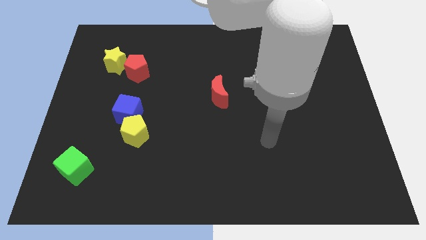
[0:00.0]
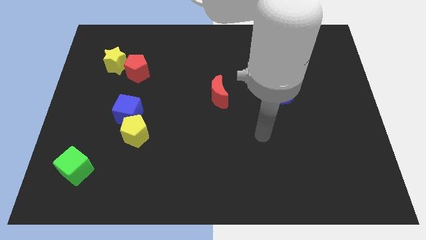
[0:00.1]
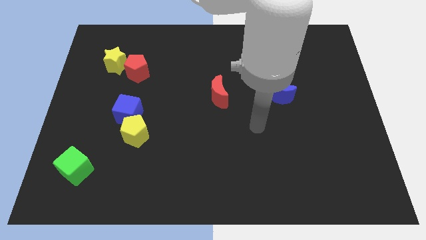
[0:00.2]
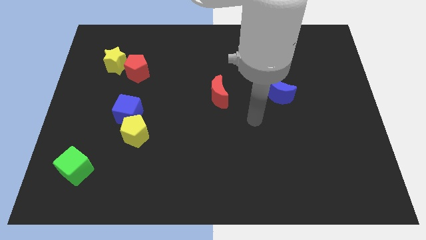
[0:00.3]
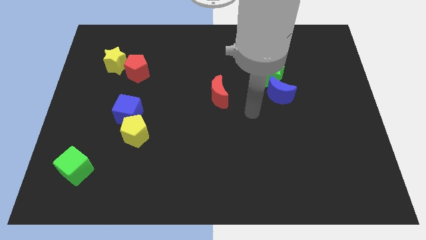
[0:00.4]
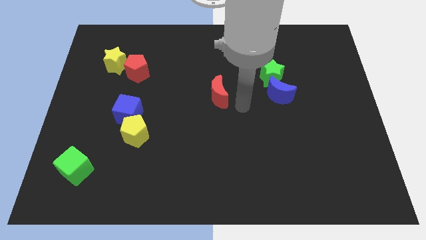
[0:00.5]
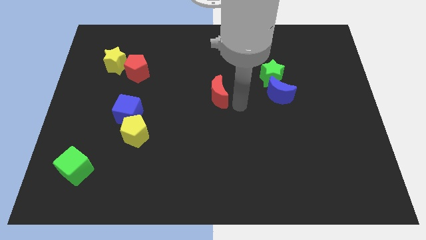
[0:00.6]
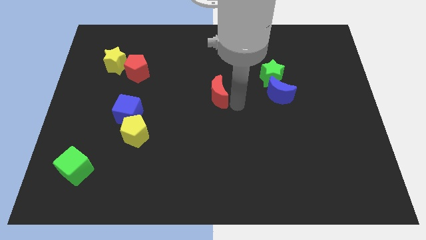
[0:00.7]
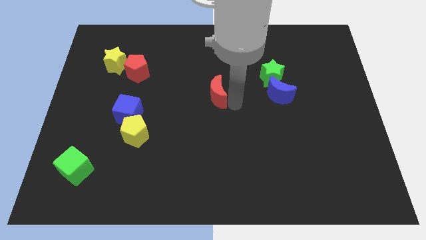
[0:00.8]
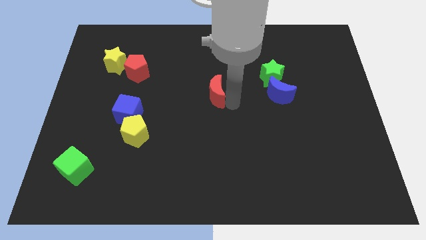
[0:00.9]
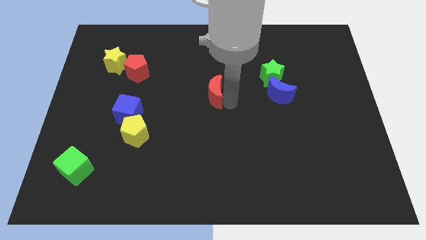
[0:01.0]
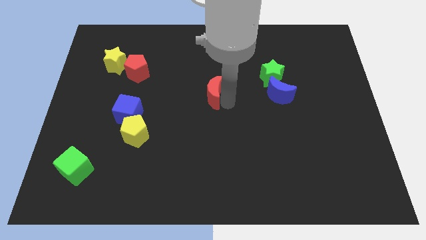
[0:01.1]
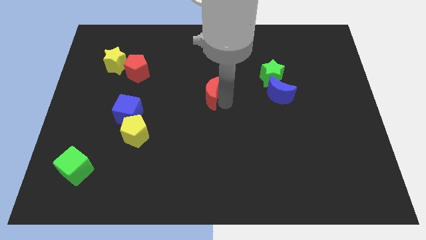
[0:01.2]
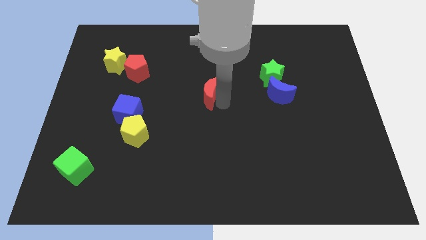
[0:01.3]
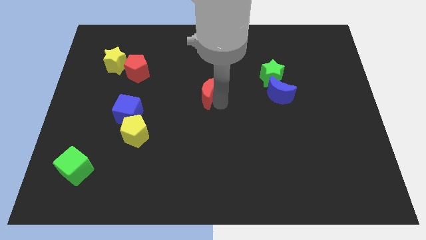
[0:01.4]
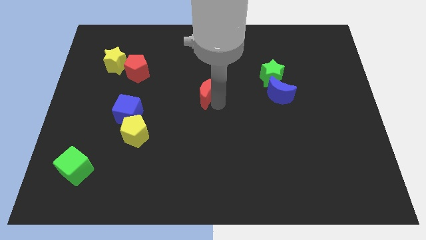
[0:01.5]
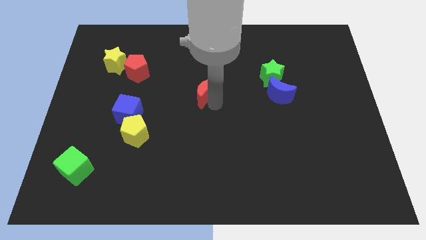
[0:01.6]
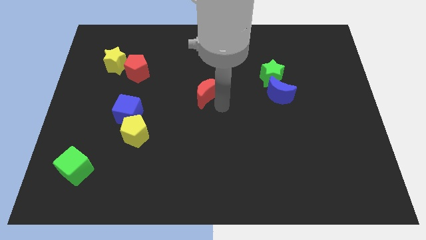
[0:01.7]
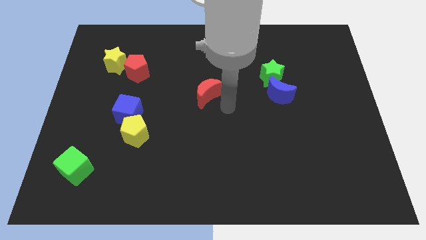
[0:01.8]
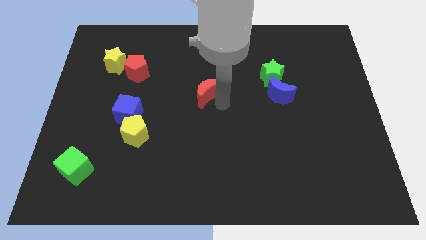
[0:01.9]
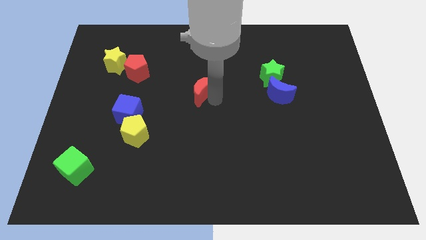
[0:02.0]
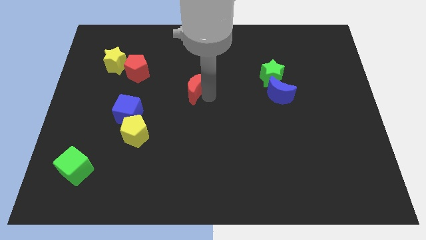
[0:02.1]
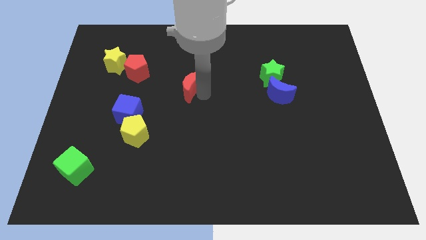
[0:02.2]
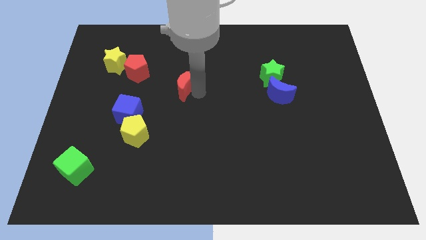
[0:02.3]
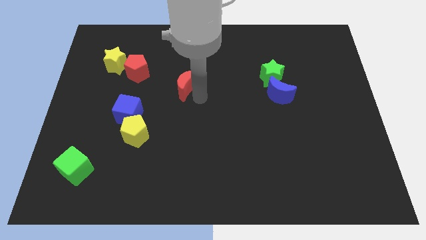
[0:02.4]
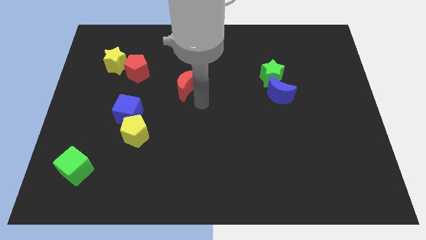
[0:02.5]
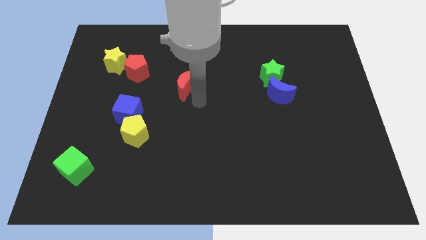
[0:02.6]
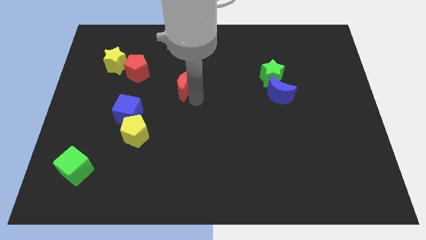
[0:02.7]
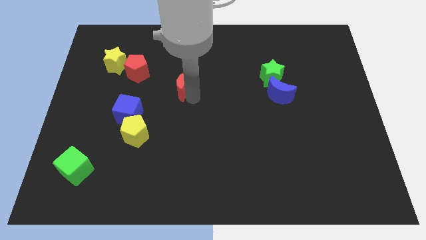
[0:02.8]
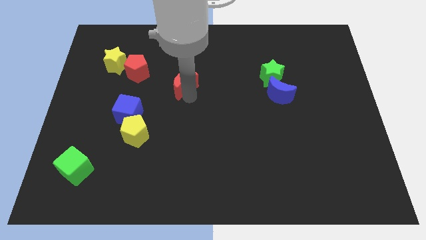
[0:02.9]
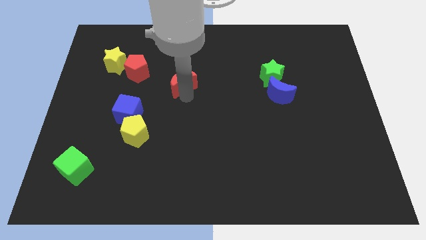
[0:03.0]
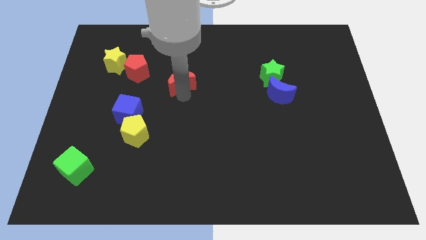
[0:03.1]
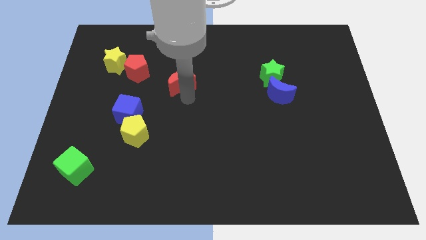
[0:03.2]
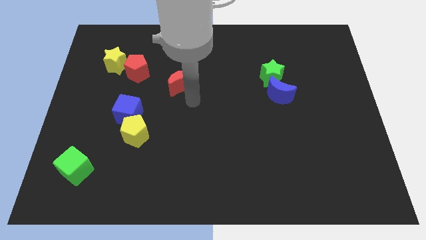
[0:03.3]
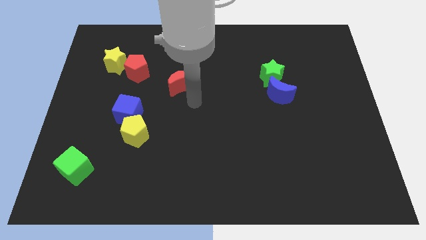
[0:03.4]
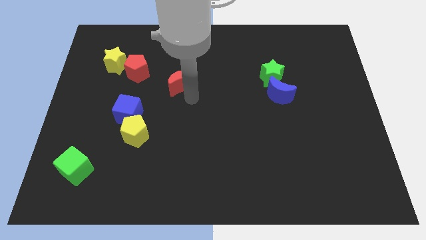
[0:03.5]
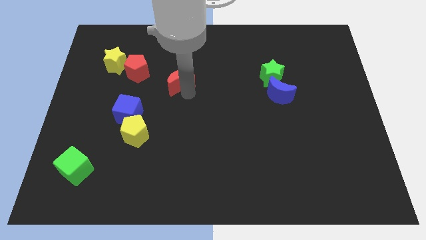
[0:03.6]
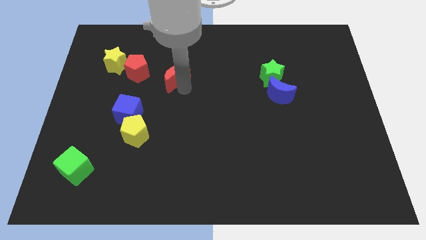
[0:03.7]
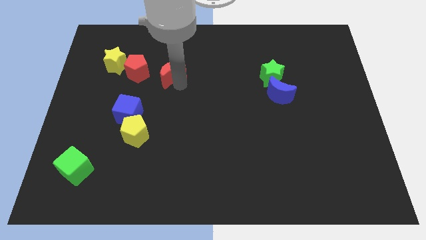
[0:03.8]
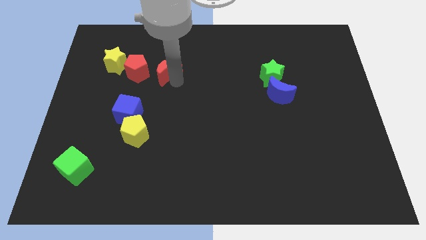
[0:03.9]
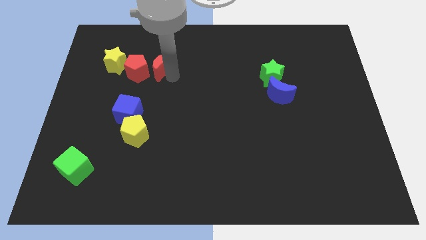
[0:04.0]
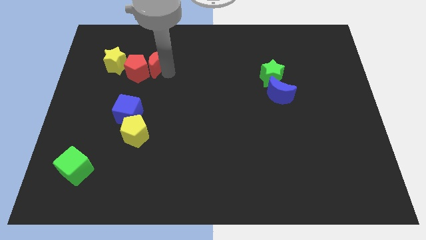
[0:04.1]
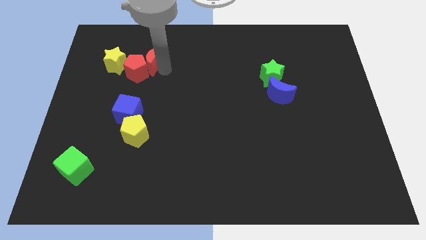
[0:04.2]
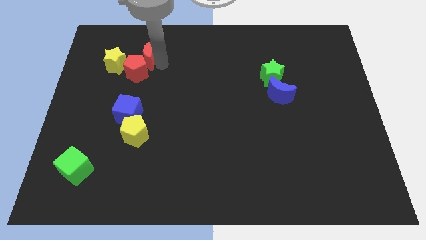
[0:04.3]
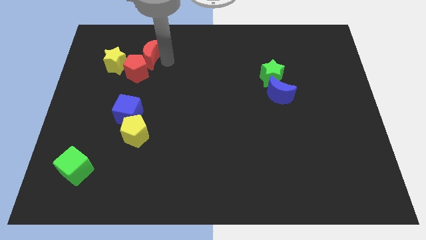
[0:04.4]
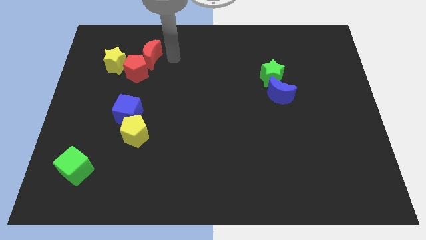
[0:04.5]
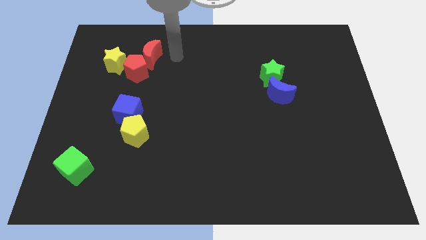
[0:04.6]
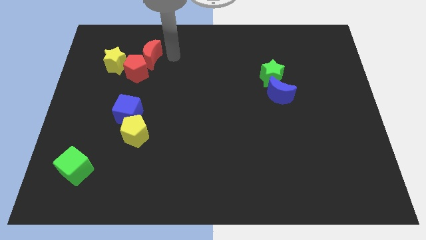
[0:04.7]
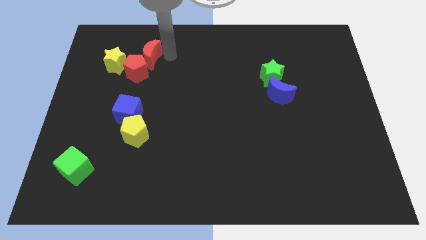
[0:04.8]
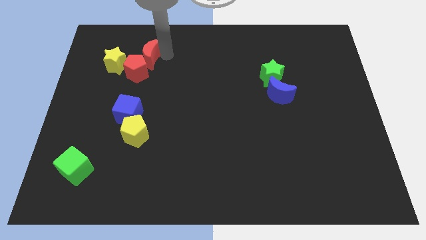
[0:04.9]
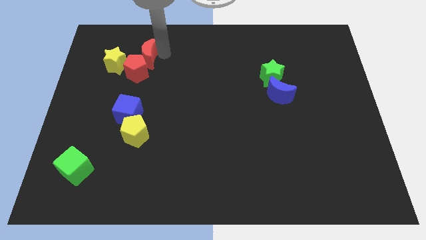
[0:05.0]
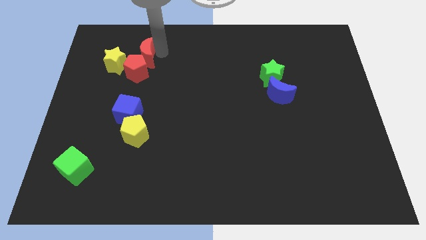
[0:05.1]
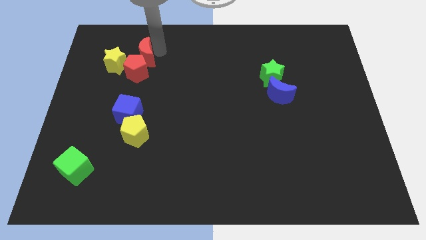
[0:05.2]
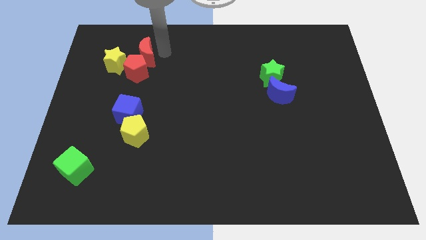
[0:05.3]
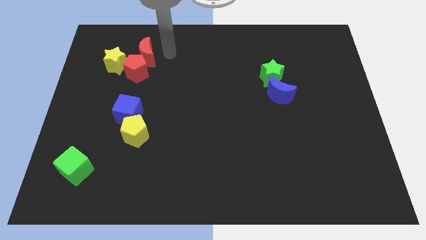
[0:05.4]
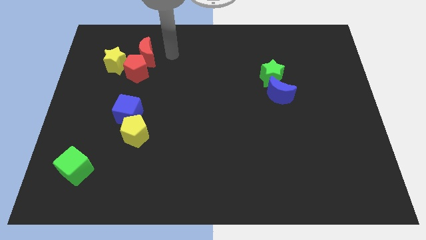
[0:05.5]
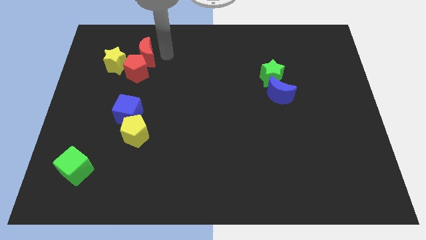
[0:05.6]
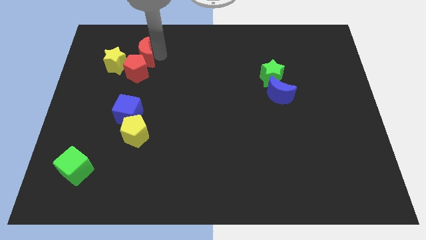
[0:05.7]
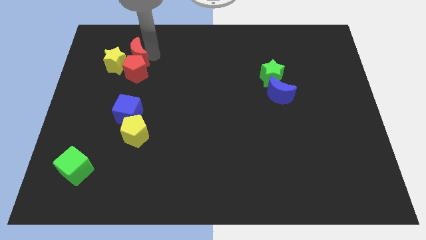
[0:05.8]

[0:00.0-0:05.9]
move the red moon to the top left of the red pentagon

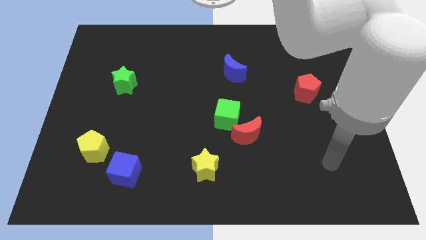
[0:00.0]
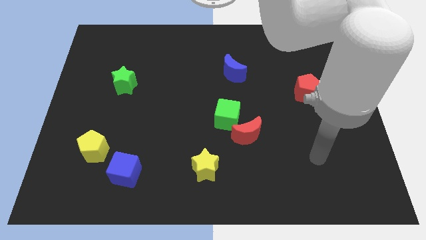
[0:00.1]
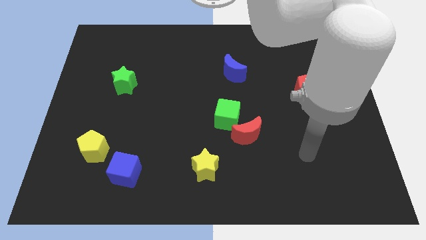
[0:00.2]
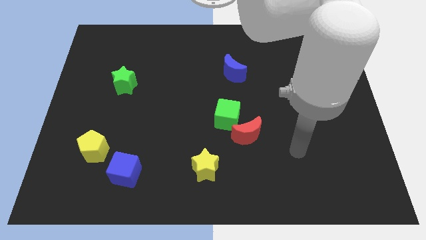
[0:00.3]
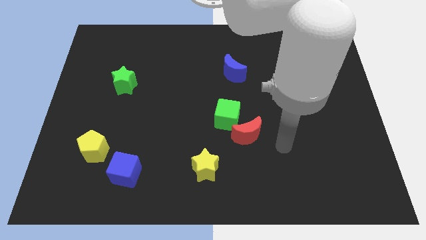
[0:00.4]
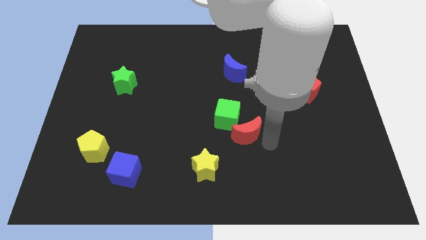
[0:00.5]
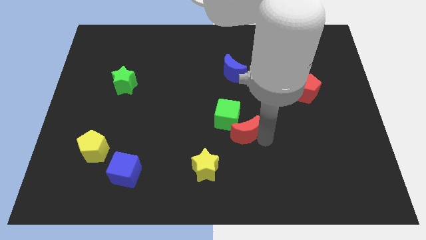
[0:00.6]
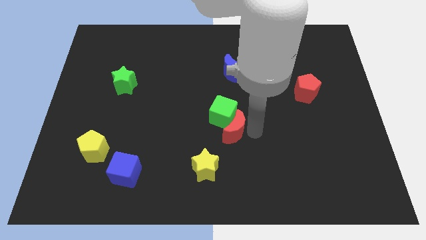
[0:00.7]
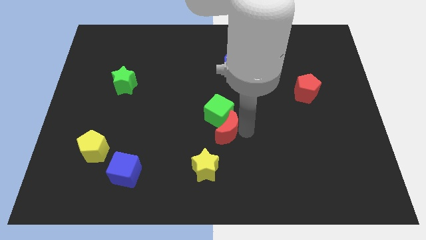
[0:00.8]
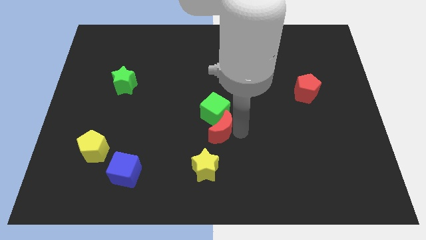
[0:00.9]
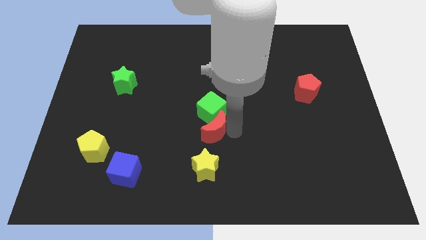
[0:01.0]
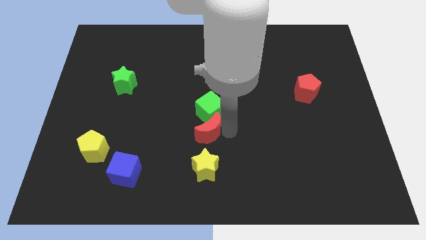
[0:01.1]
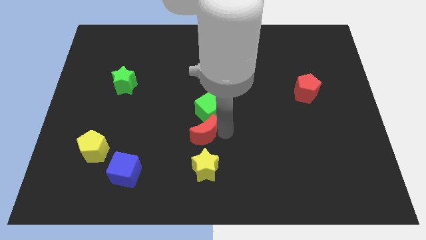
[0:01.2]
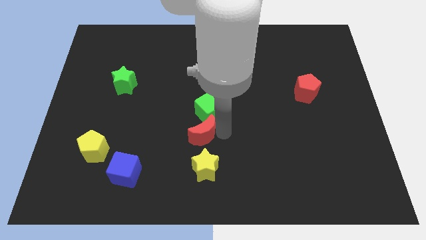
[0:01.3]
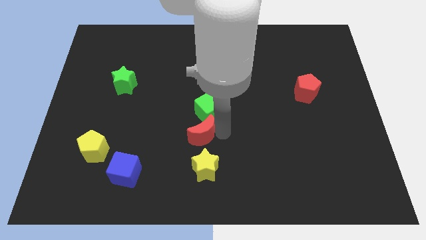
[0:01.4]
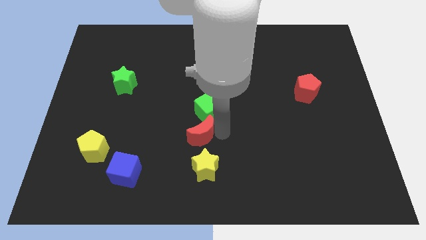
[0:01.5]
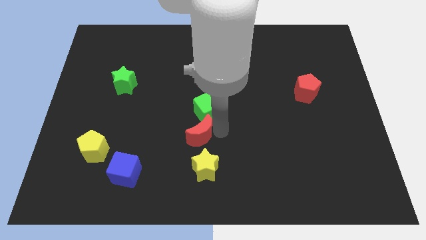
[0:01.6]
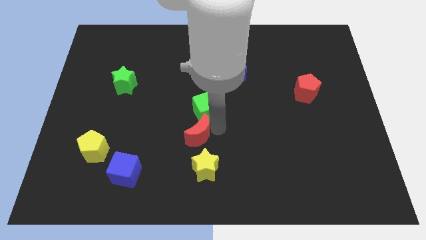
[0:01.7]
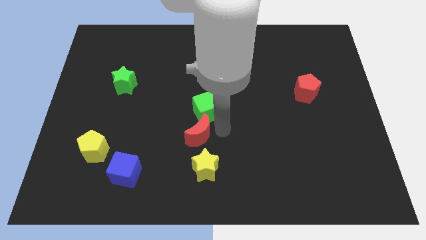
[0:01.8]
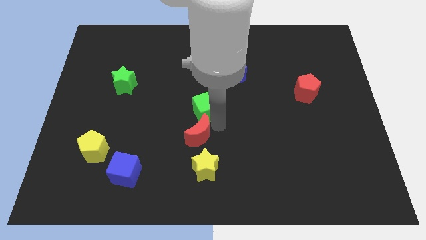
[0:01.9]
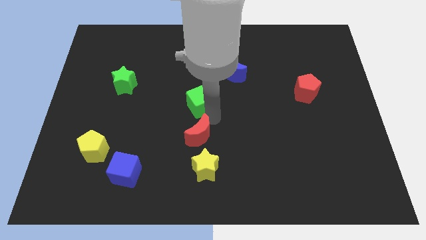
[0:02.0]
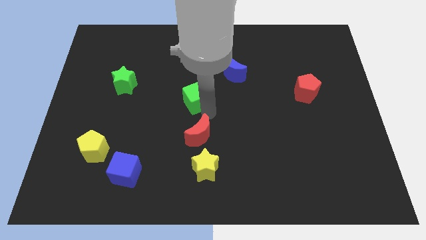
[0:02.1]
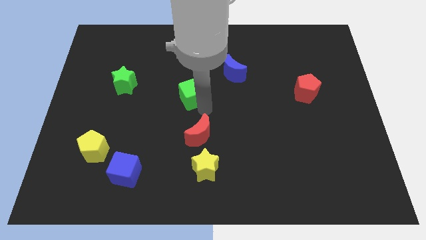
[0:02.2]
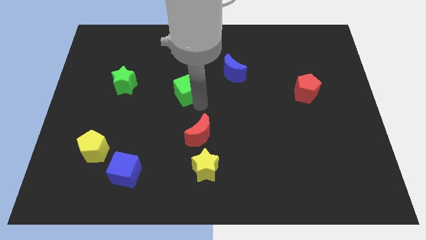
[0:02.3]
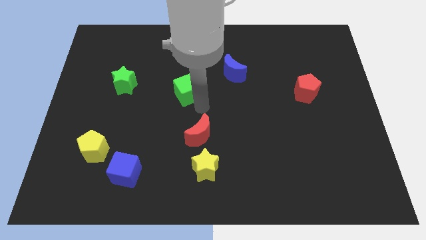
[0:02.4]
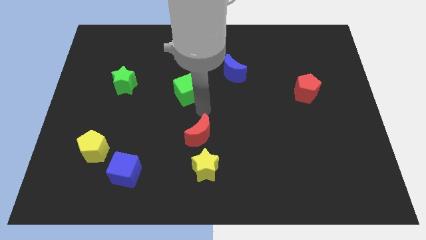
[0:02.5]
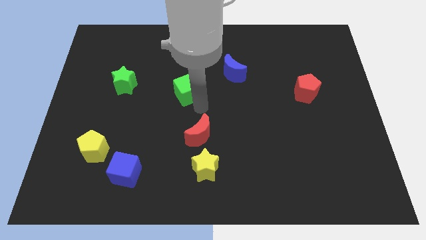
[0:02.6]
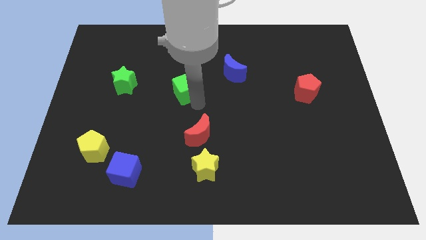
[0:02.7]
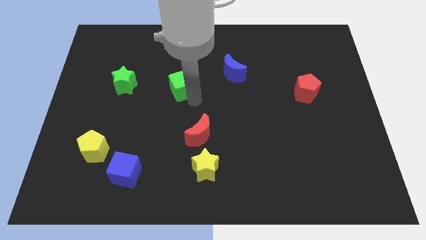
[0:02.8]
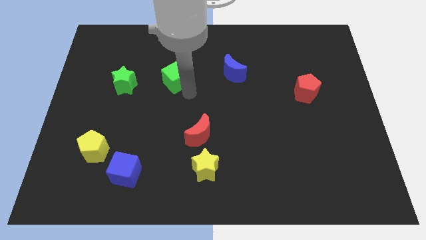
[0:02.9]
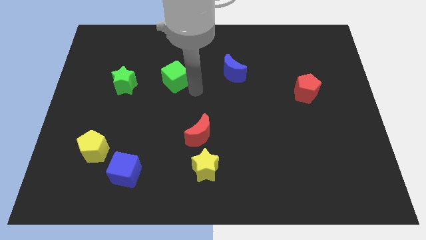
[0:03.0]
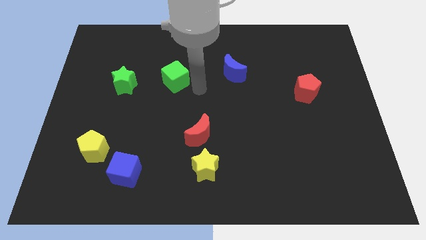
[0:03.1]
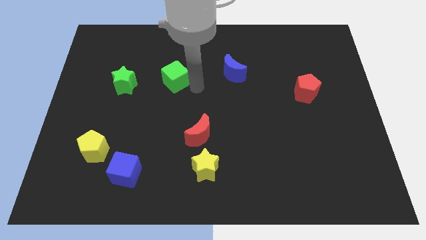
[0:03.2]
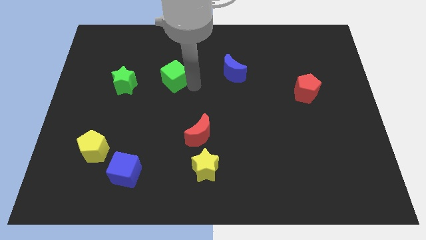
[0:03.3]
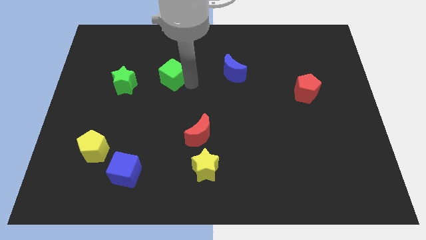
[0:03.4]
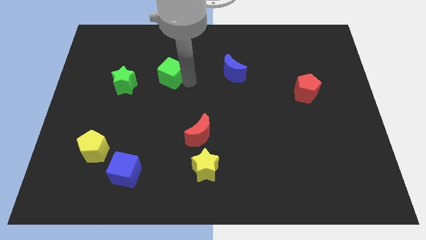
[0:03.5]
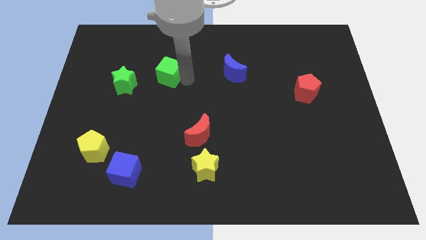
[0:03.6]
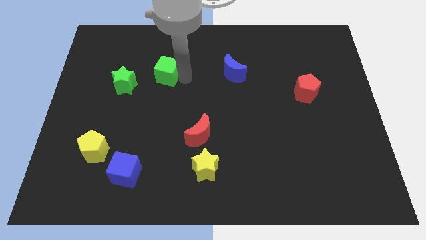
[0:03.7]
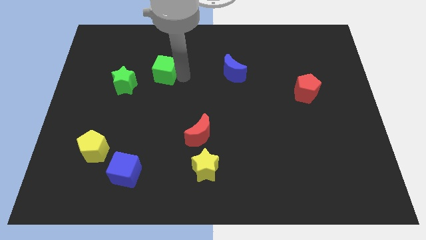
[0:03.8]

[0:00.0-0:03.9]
slide the green cube to the top right side of the green star
